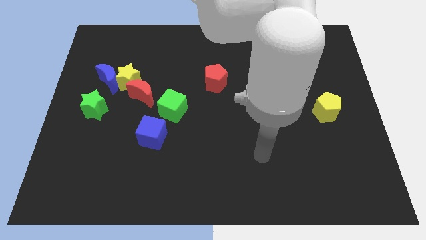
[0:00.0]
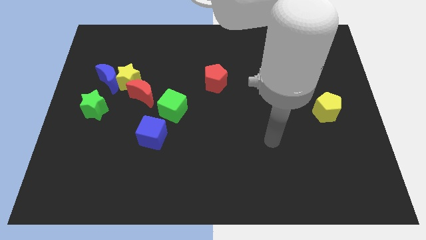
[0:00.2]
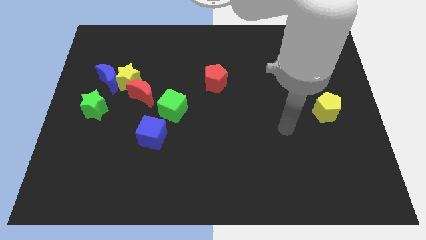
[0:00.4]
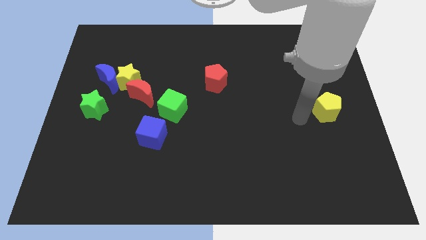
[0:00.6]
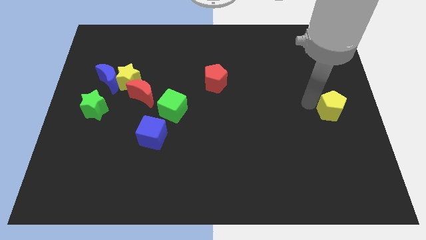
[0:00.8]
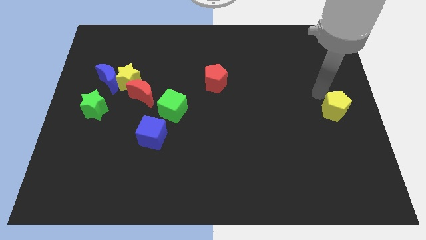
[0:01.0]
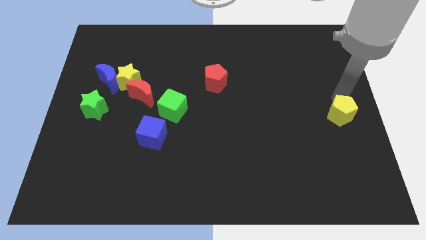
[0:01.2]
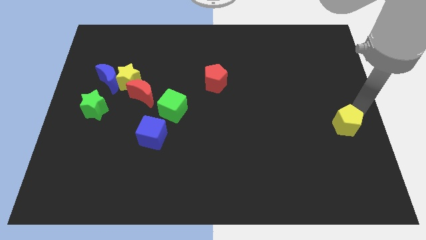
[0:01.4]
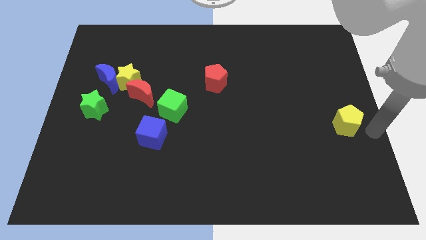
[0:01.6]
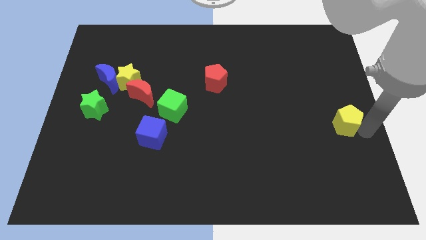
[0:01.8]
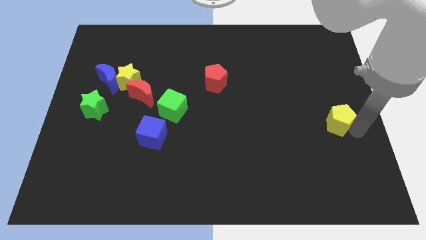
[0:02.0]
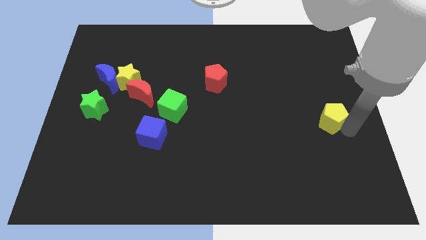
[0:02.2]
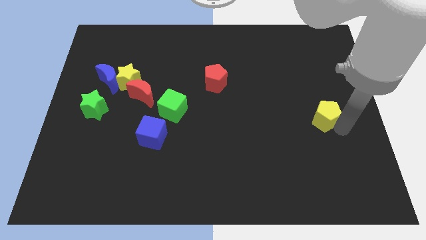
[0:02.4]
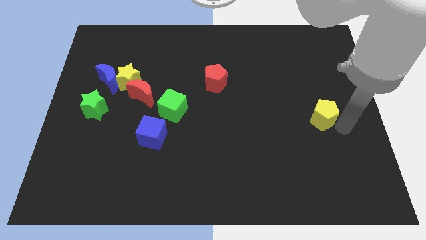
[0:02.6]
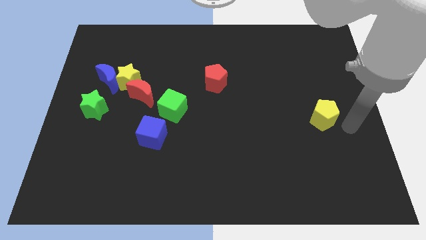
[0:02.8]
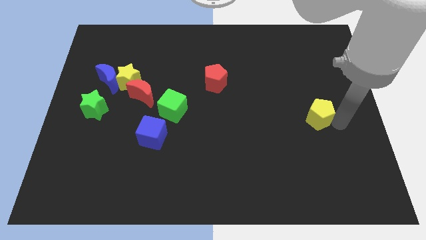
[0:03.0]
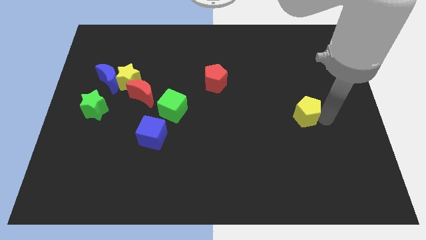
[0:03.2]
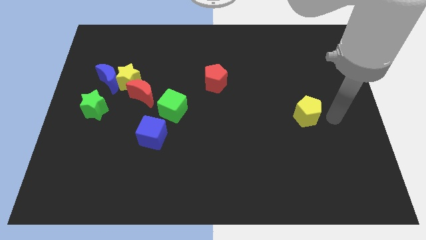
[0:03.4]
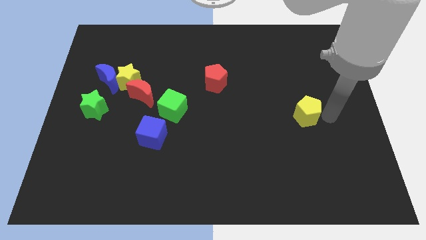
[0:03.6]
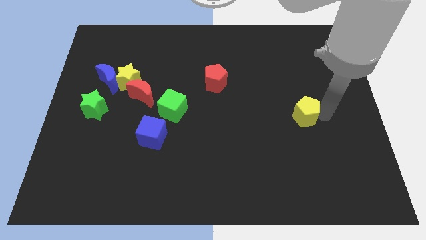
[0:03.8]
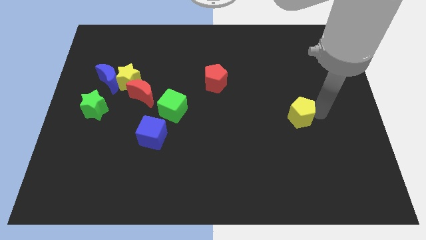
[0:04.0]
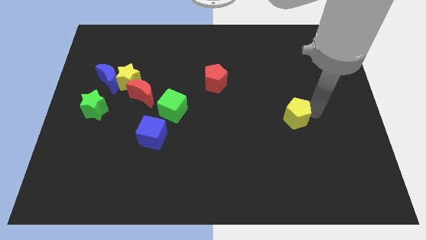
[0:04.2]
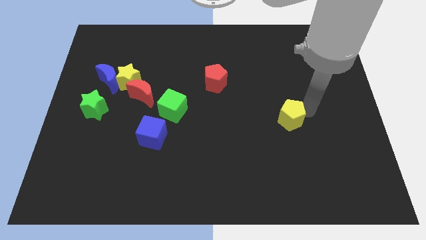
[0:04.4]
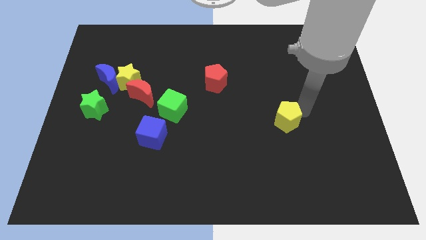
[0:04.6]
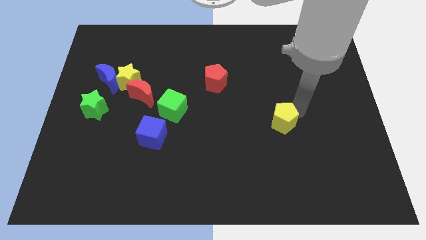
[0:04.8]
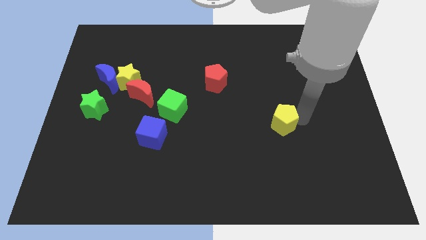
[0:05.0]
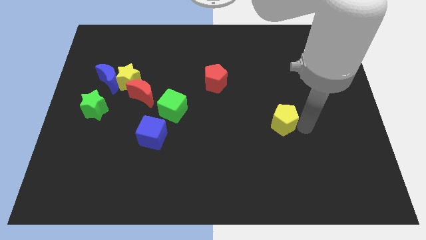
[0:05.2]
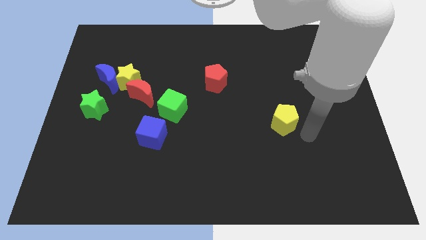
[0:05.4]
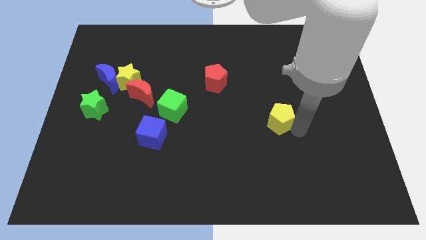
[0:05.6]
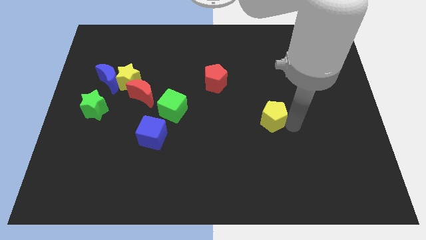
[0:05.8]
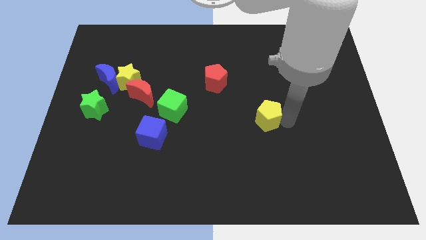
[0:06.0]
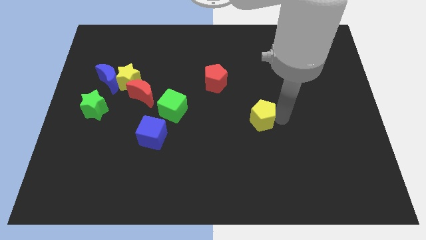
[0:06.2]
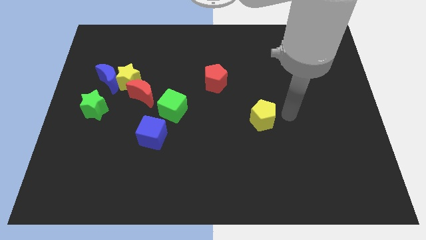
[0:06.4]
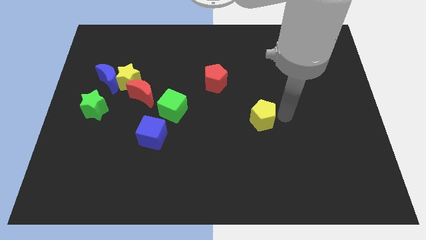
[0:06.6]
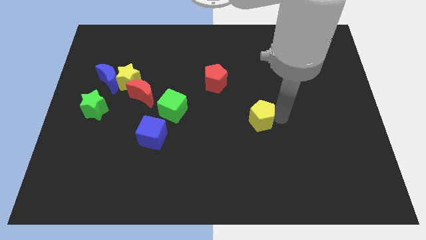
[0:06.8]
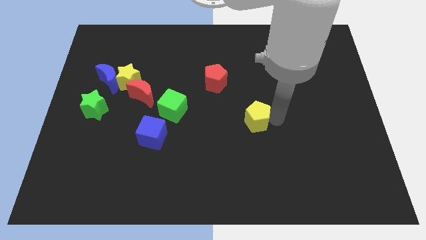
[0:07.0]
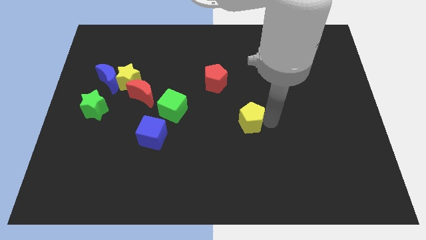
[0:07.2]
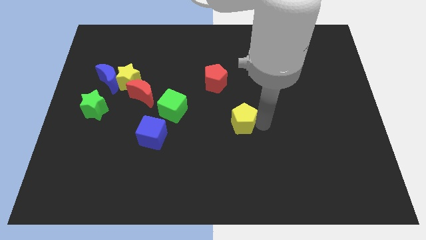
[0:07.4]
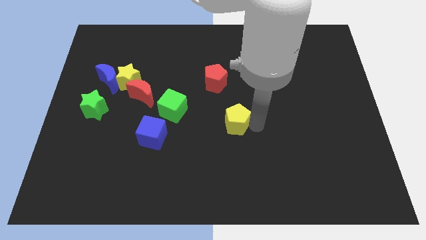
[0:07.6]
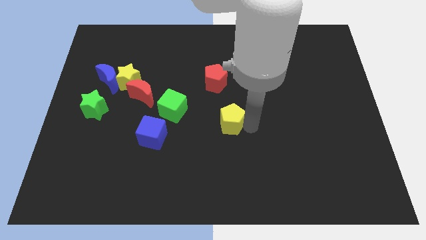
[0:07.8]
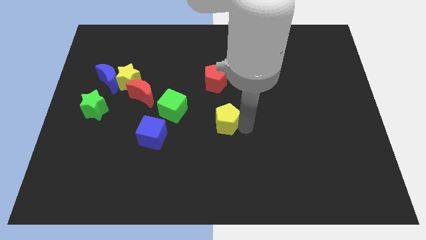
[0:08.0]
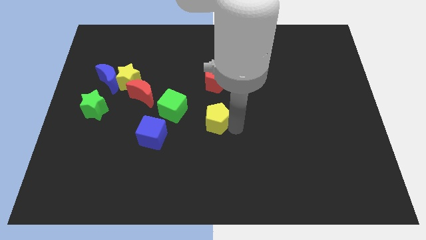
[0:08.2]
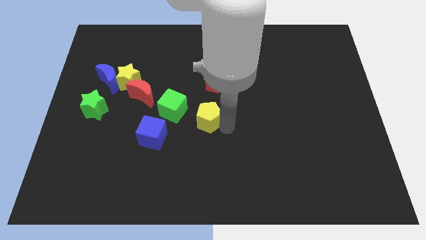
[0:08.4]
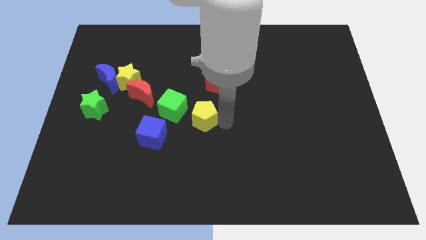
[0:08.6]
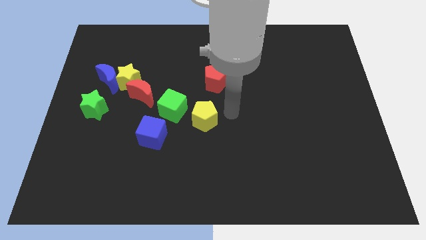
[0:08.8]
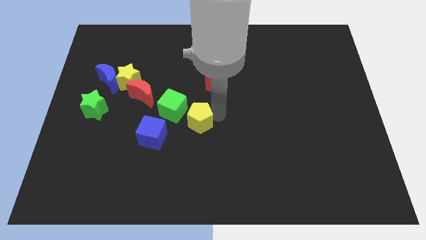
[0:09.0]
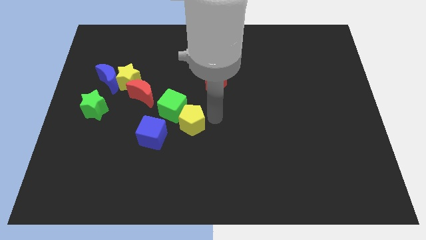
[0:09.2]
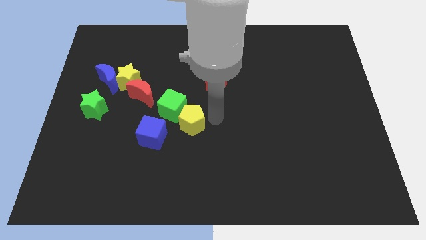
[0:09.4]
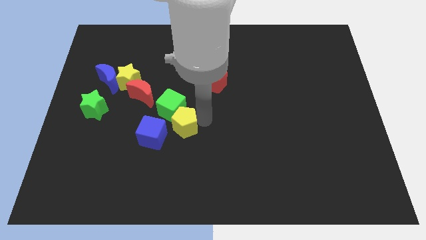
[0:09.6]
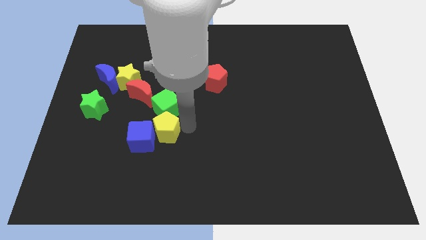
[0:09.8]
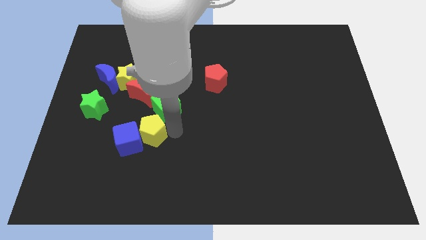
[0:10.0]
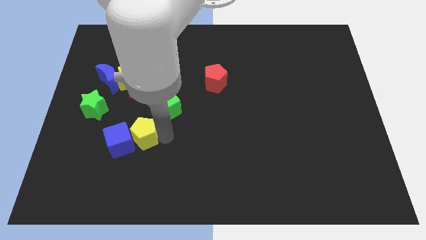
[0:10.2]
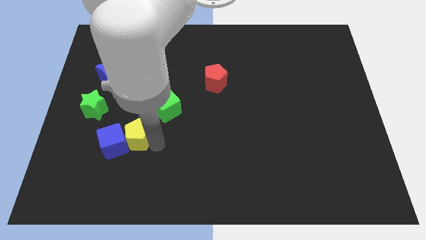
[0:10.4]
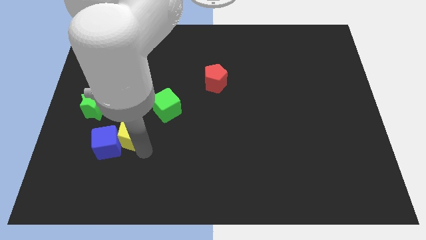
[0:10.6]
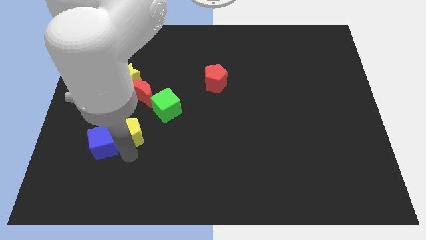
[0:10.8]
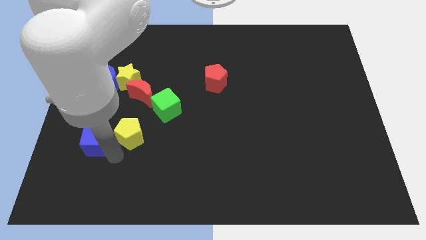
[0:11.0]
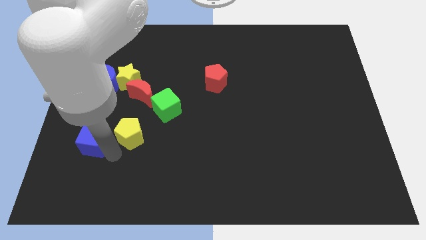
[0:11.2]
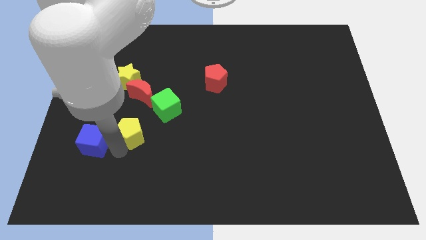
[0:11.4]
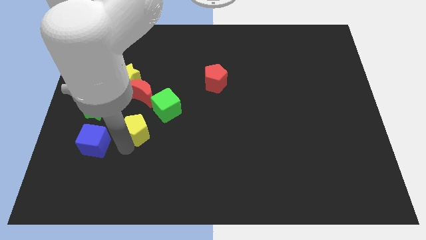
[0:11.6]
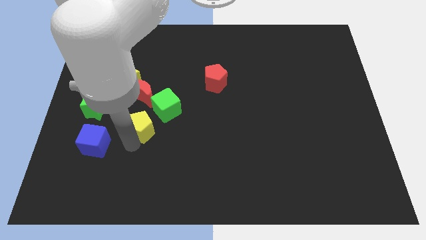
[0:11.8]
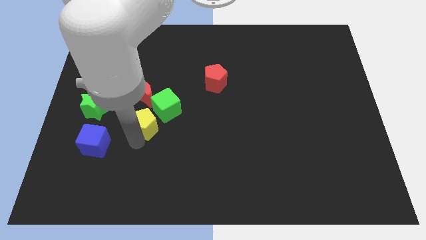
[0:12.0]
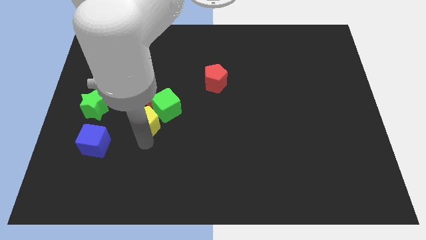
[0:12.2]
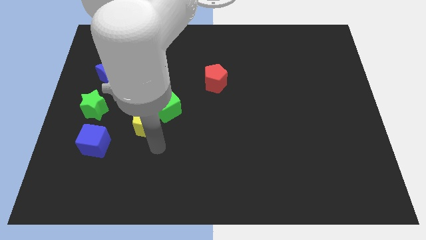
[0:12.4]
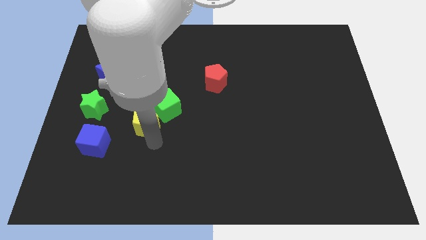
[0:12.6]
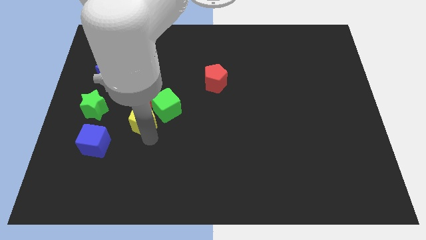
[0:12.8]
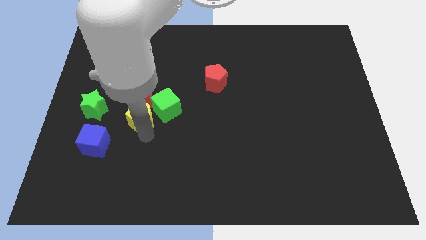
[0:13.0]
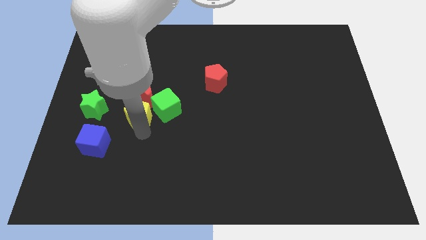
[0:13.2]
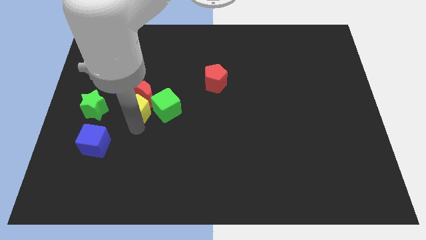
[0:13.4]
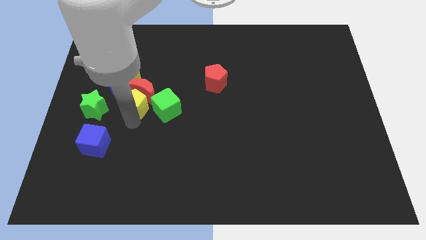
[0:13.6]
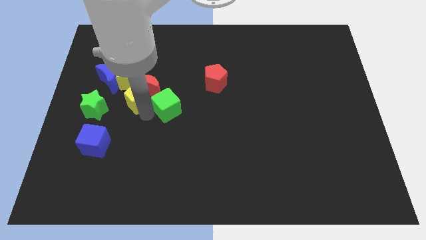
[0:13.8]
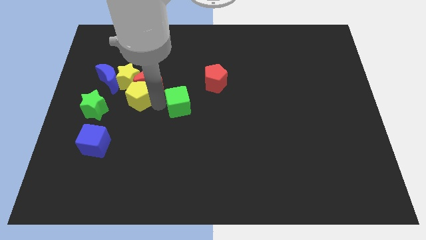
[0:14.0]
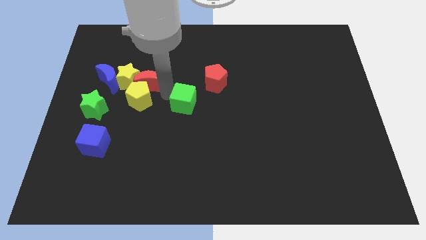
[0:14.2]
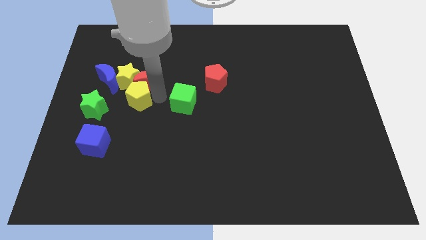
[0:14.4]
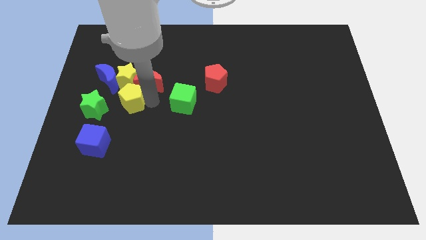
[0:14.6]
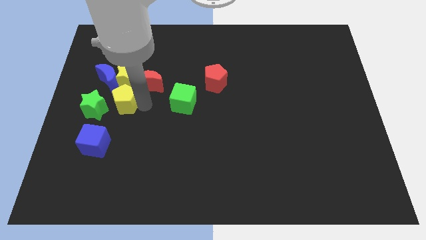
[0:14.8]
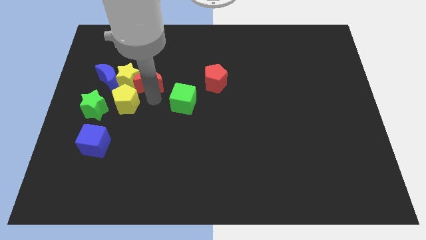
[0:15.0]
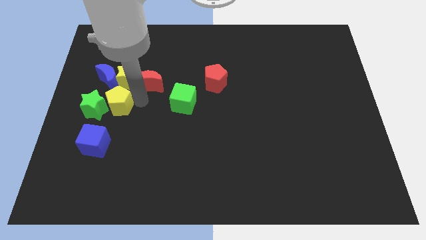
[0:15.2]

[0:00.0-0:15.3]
push the yellow pentagon close to the green star

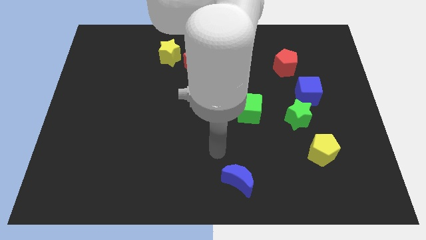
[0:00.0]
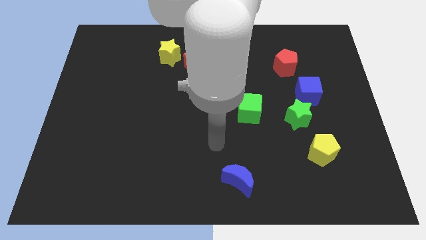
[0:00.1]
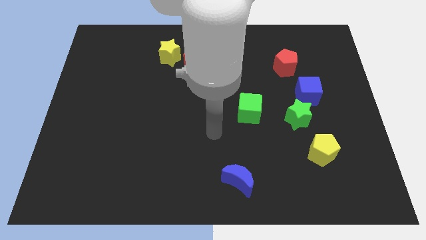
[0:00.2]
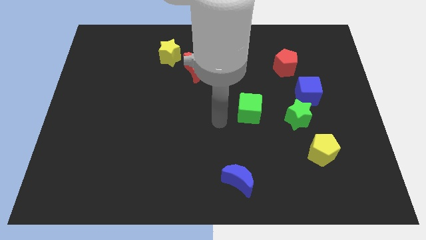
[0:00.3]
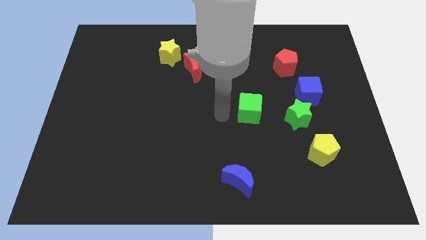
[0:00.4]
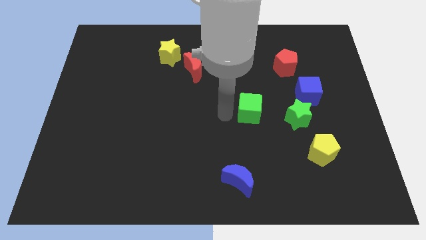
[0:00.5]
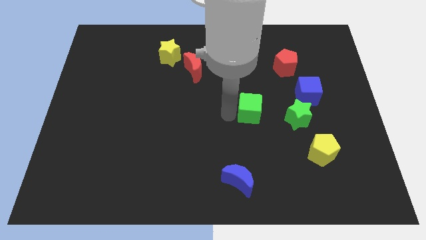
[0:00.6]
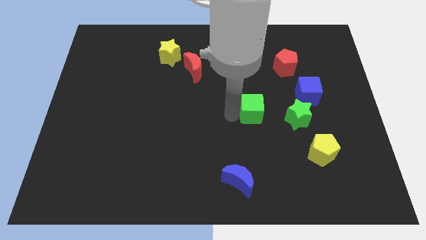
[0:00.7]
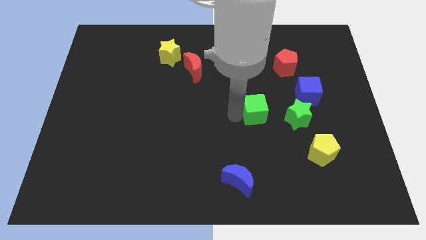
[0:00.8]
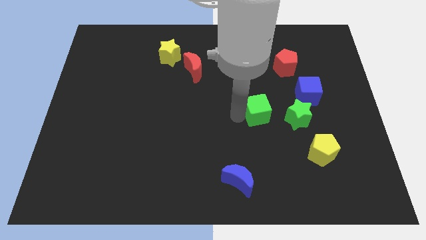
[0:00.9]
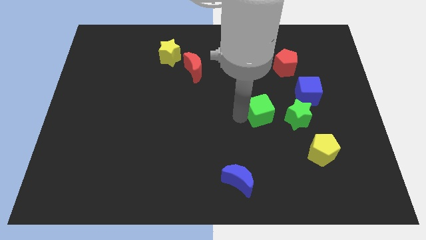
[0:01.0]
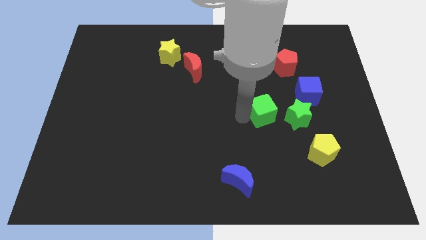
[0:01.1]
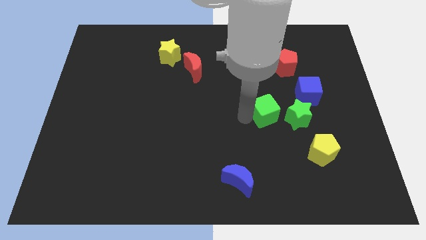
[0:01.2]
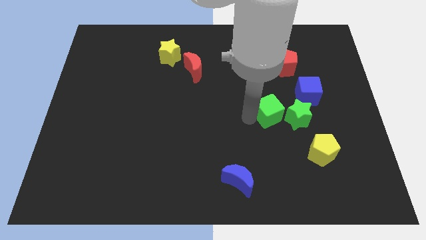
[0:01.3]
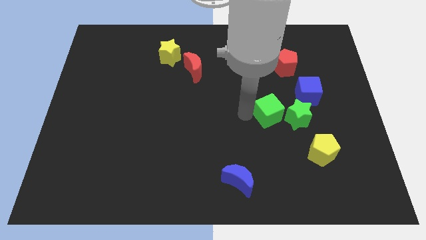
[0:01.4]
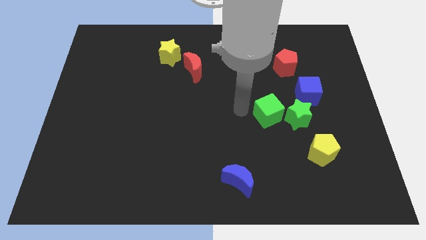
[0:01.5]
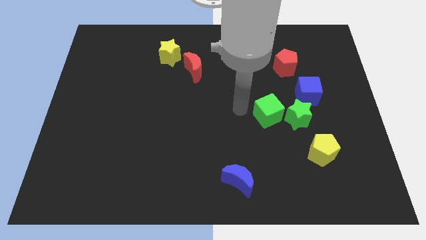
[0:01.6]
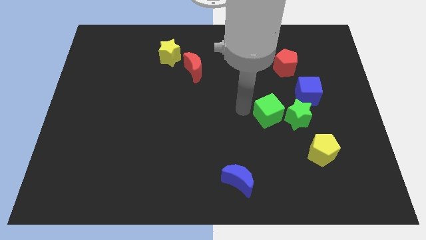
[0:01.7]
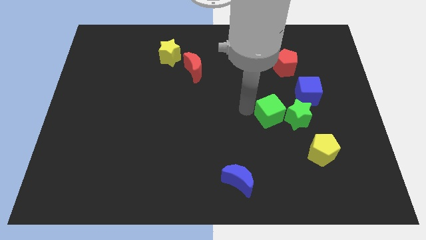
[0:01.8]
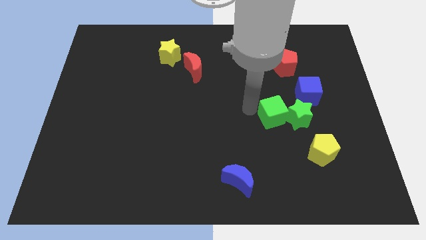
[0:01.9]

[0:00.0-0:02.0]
slide the green cube next to the green star
